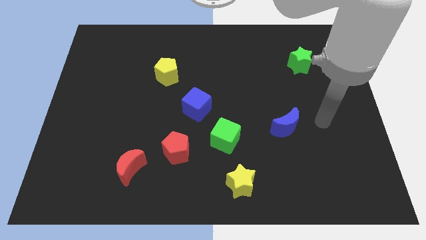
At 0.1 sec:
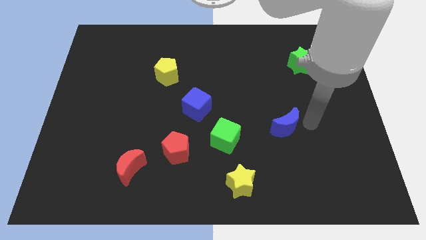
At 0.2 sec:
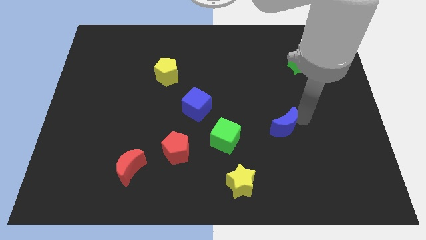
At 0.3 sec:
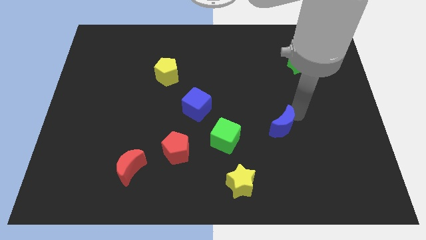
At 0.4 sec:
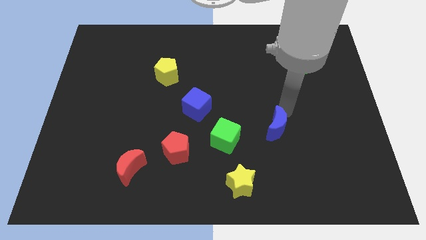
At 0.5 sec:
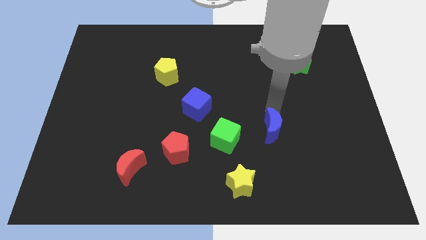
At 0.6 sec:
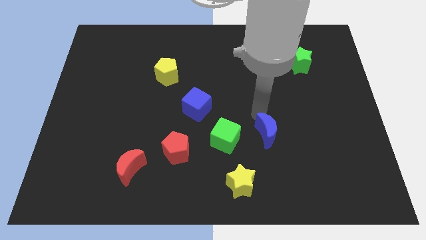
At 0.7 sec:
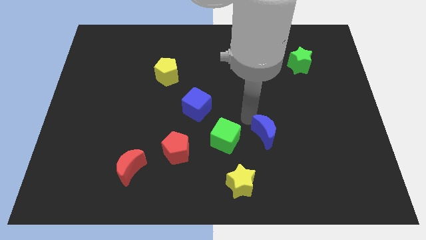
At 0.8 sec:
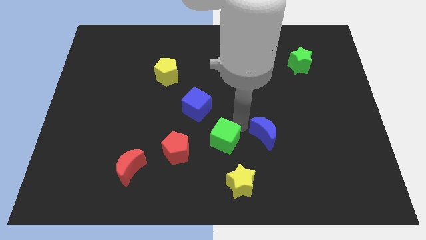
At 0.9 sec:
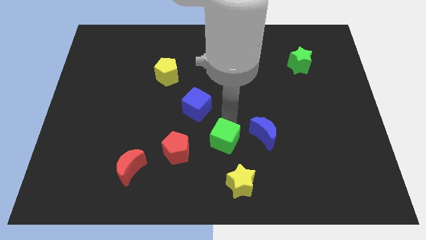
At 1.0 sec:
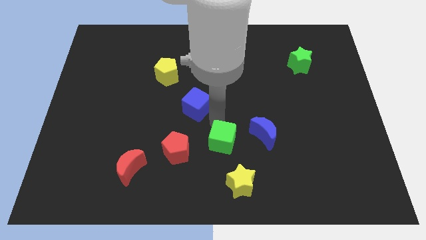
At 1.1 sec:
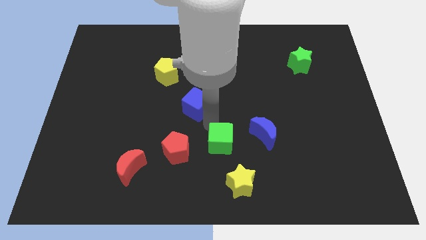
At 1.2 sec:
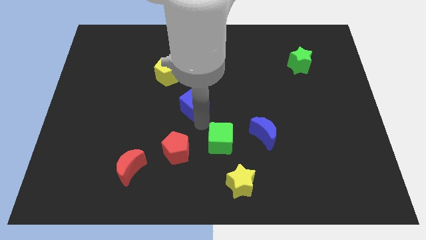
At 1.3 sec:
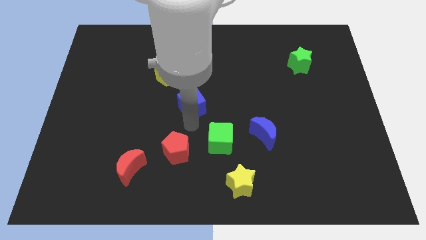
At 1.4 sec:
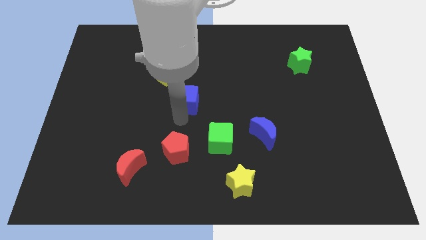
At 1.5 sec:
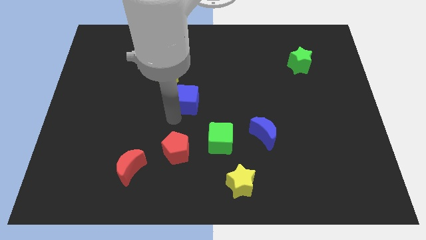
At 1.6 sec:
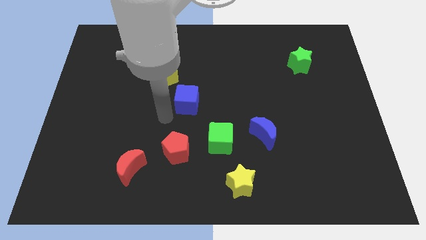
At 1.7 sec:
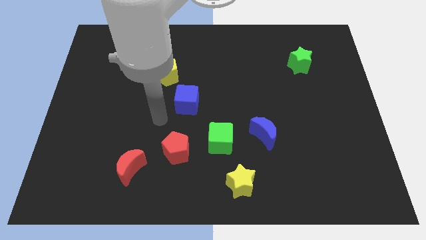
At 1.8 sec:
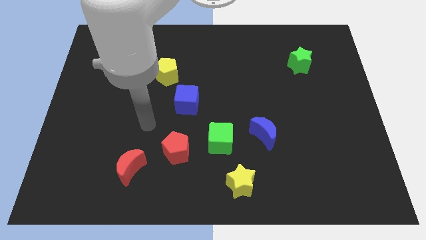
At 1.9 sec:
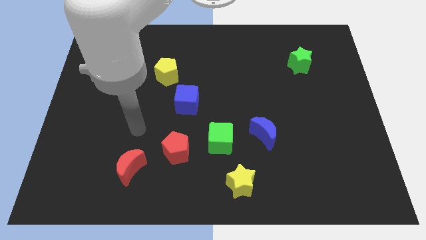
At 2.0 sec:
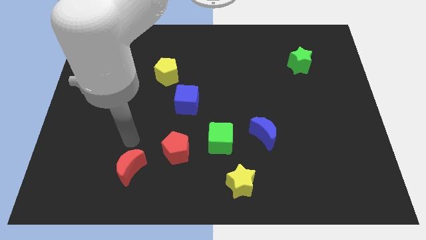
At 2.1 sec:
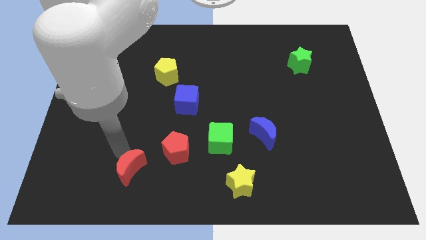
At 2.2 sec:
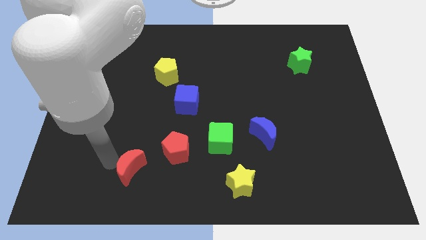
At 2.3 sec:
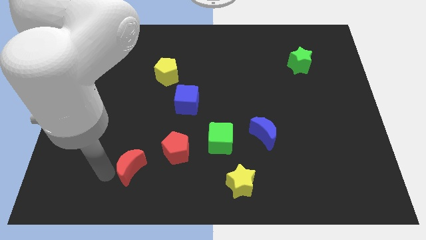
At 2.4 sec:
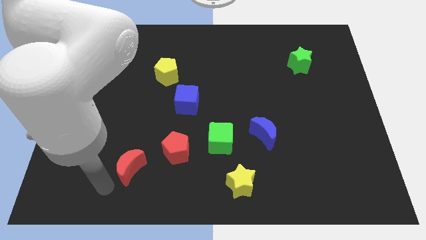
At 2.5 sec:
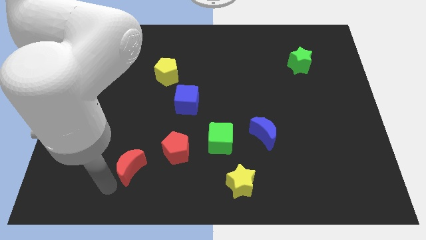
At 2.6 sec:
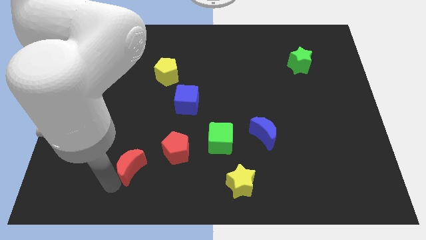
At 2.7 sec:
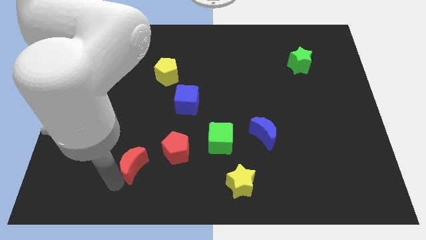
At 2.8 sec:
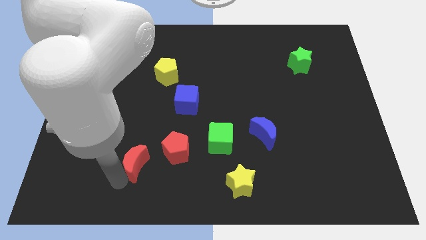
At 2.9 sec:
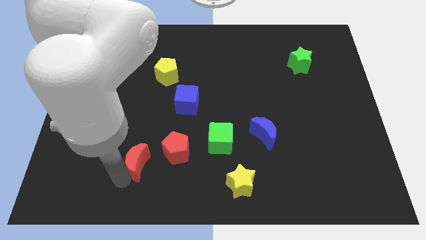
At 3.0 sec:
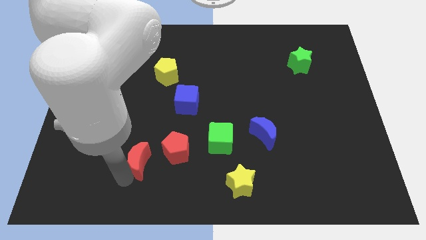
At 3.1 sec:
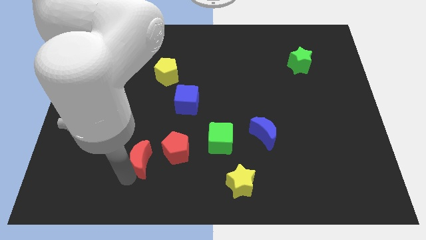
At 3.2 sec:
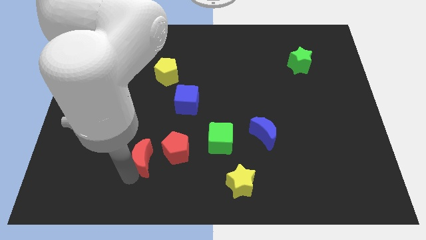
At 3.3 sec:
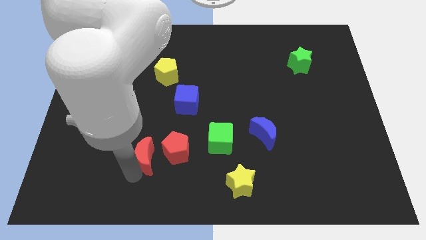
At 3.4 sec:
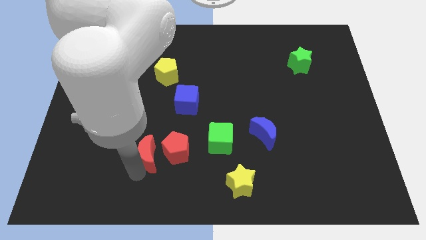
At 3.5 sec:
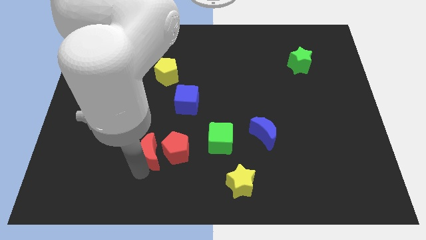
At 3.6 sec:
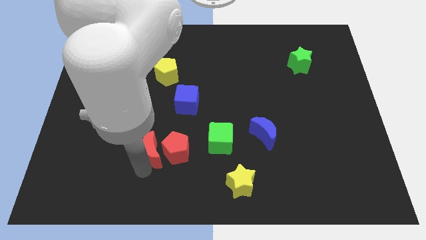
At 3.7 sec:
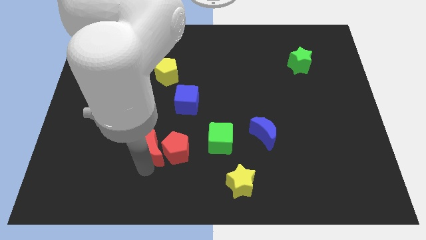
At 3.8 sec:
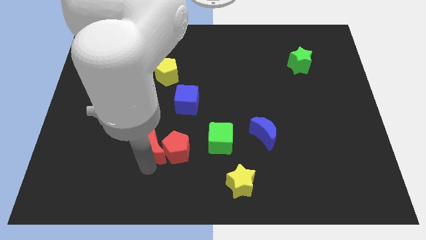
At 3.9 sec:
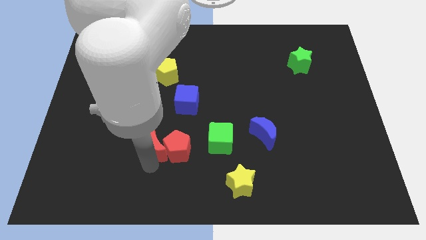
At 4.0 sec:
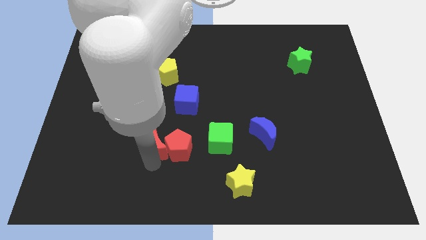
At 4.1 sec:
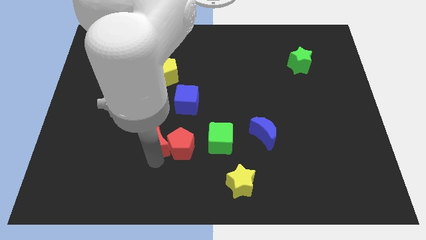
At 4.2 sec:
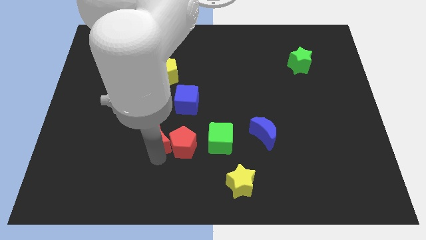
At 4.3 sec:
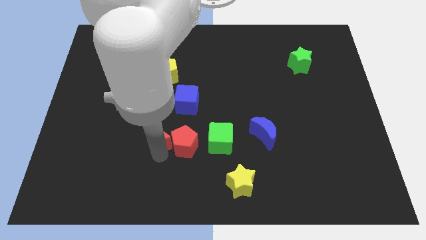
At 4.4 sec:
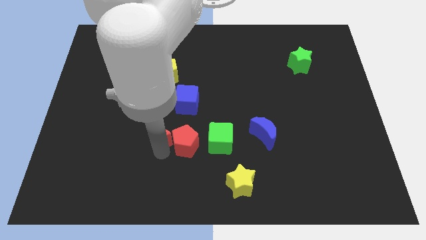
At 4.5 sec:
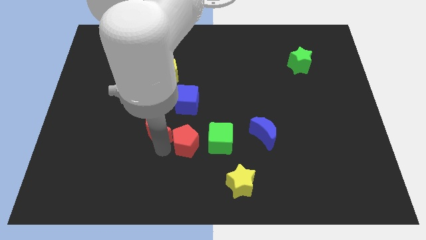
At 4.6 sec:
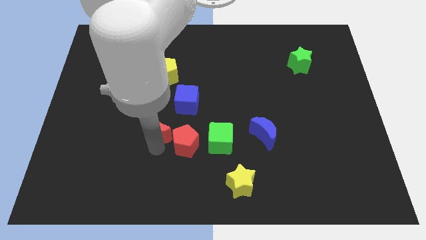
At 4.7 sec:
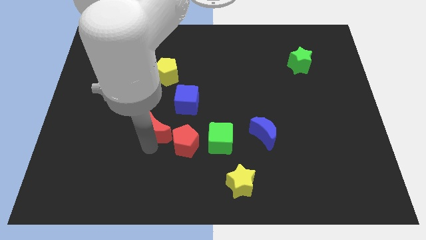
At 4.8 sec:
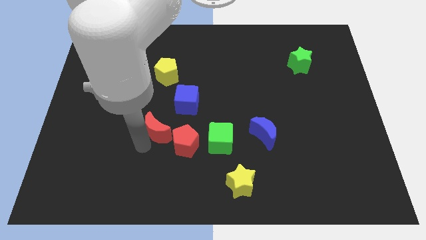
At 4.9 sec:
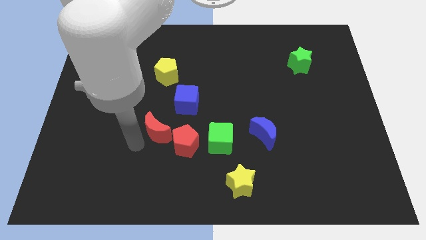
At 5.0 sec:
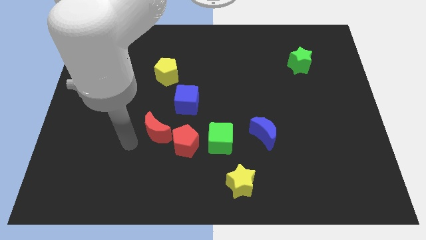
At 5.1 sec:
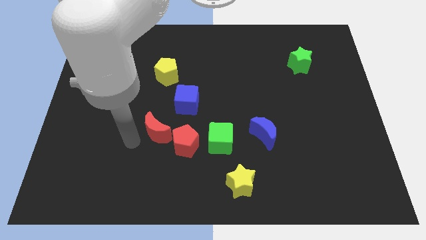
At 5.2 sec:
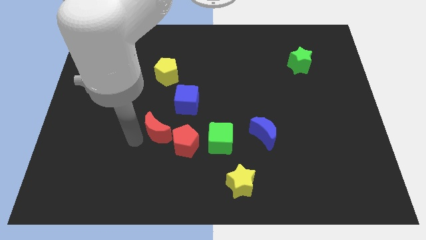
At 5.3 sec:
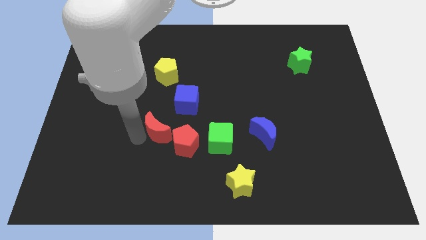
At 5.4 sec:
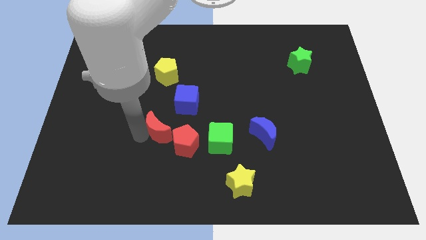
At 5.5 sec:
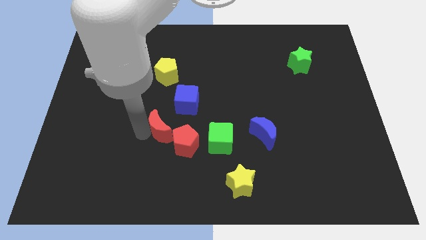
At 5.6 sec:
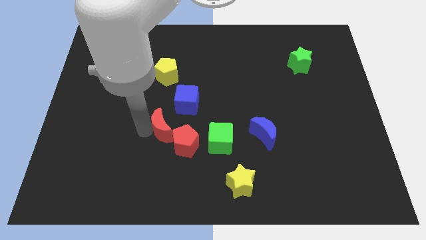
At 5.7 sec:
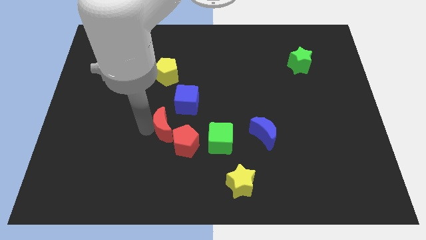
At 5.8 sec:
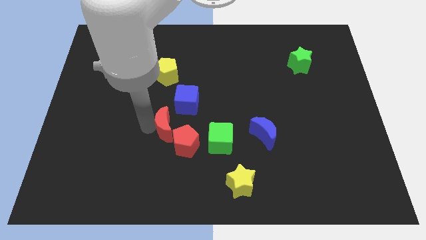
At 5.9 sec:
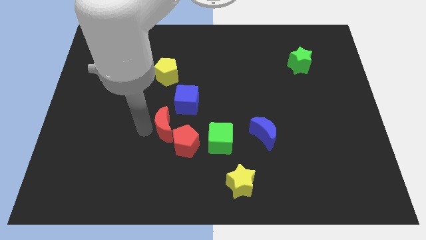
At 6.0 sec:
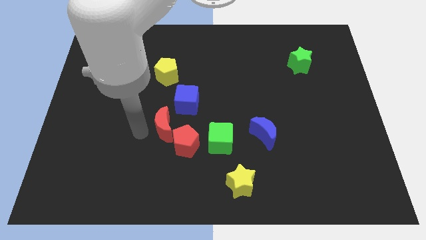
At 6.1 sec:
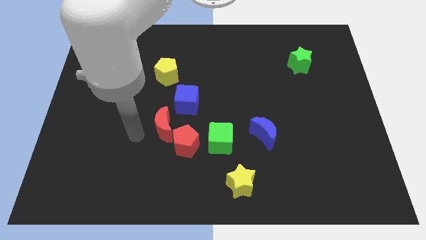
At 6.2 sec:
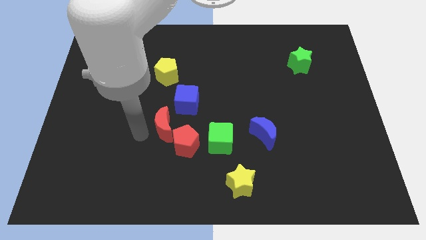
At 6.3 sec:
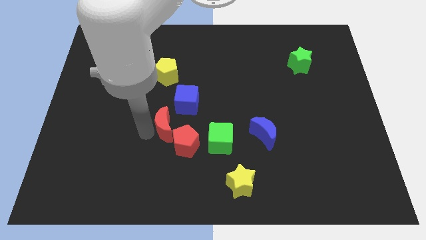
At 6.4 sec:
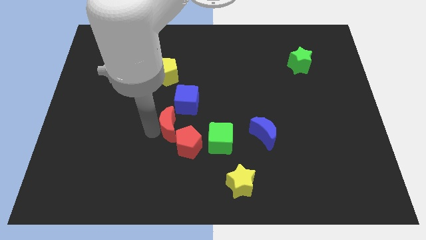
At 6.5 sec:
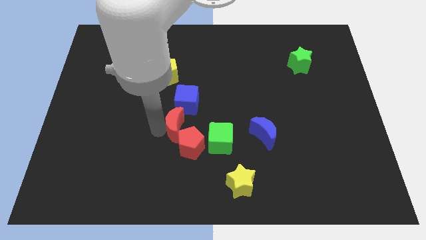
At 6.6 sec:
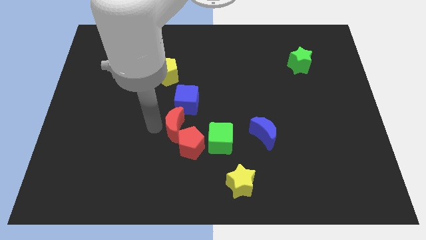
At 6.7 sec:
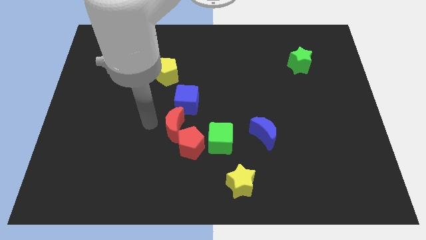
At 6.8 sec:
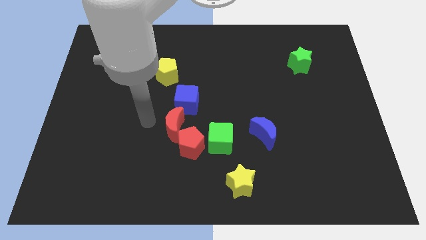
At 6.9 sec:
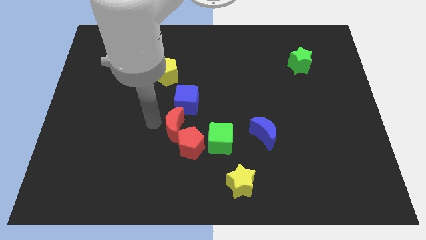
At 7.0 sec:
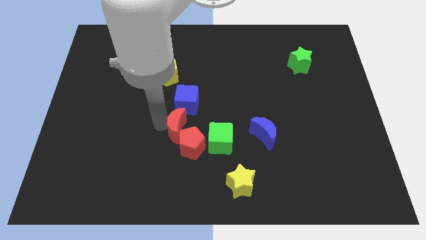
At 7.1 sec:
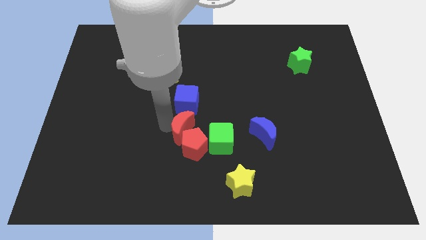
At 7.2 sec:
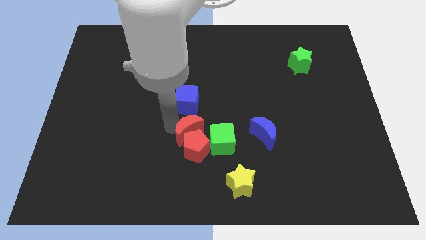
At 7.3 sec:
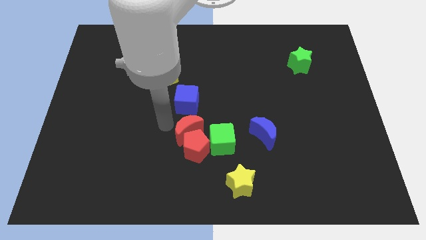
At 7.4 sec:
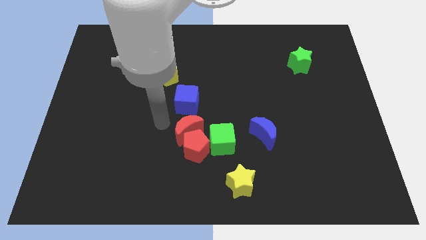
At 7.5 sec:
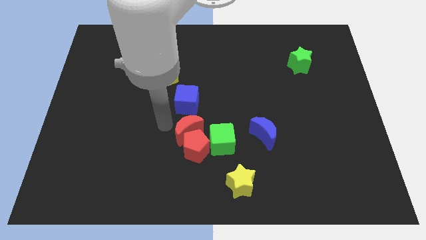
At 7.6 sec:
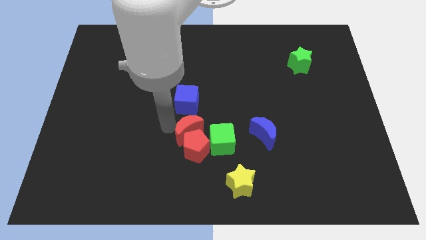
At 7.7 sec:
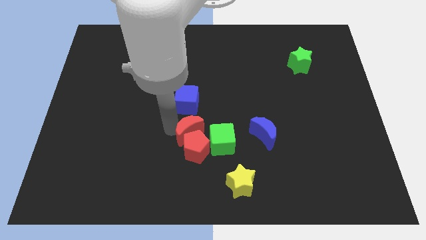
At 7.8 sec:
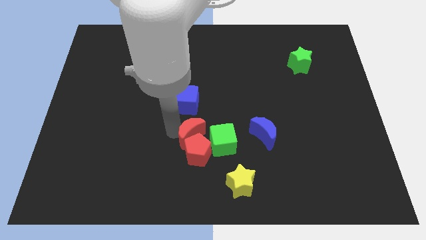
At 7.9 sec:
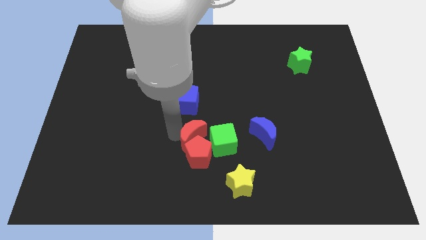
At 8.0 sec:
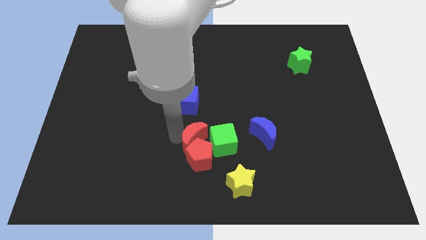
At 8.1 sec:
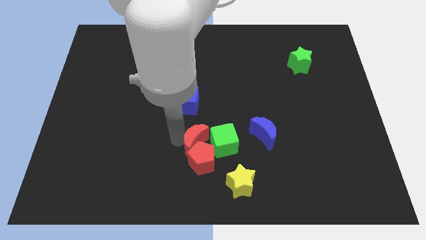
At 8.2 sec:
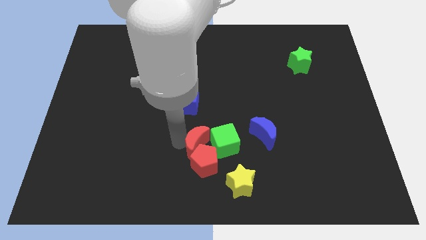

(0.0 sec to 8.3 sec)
move the red moon to the green cube
